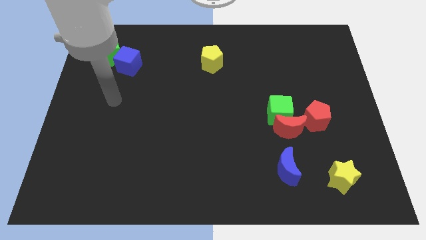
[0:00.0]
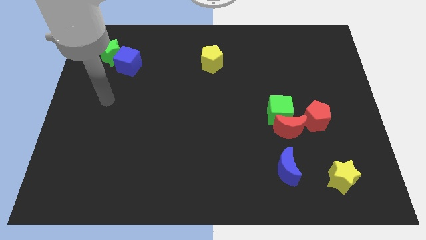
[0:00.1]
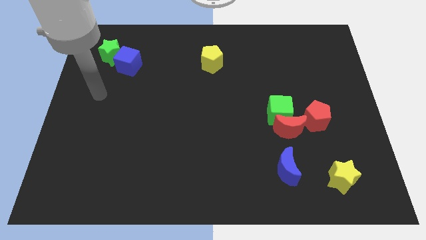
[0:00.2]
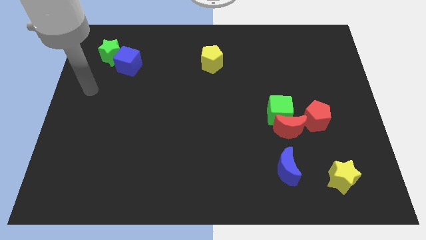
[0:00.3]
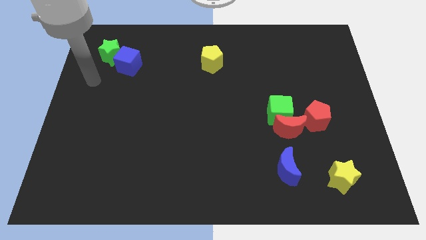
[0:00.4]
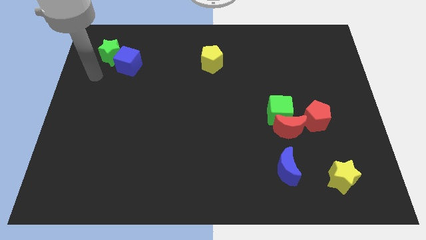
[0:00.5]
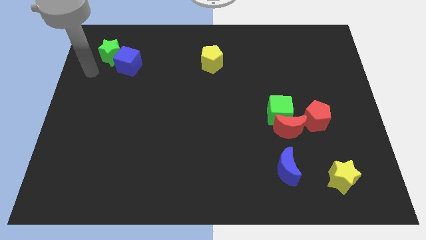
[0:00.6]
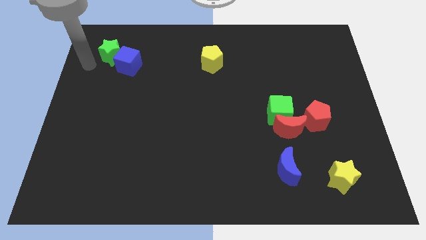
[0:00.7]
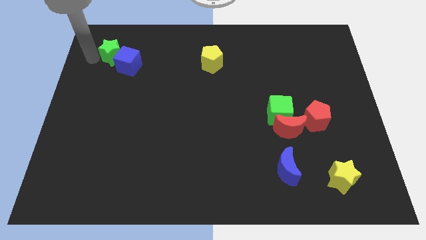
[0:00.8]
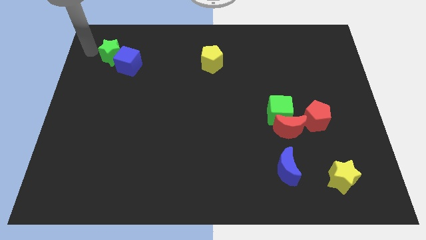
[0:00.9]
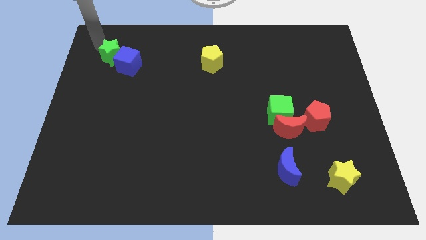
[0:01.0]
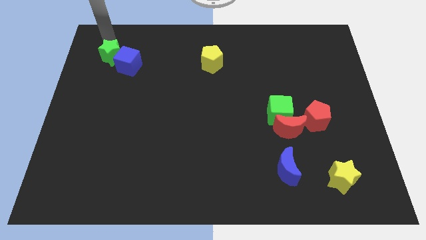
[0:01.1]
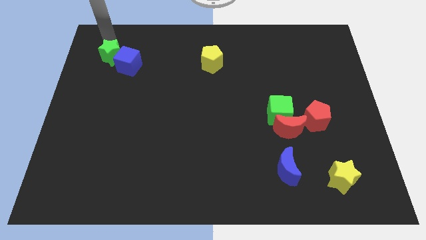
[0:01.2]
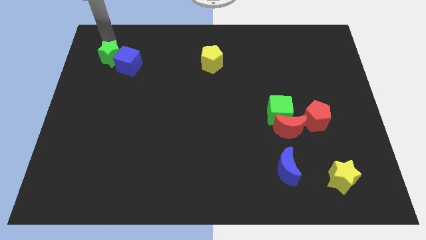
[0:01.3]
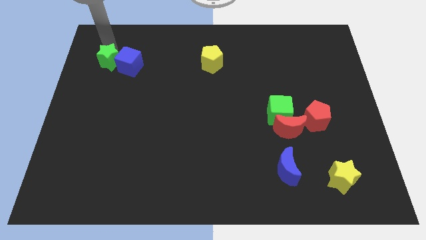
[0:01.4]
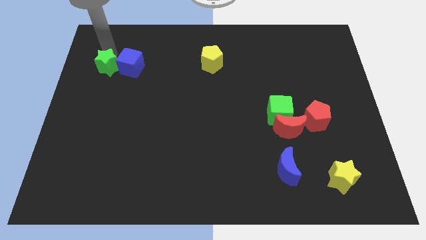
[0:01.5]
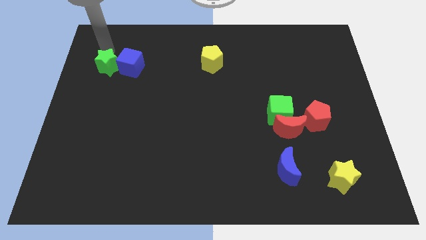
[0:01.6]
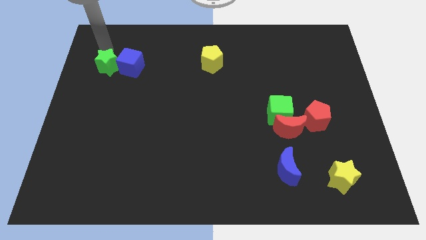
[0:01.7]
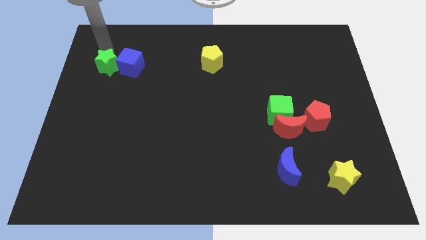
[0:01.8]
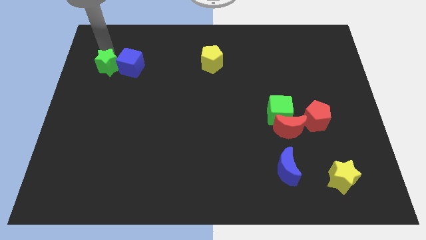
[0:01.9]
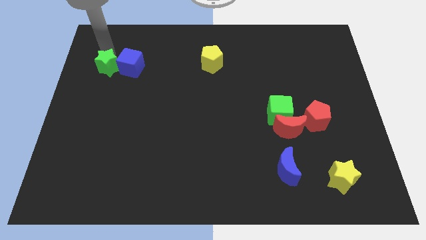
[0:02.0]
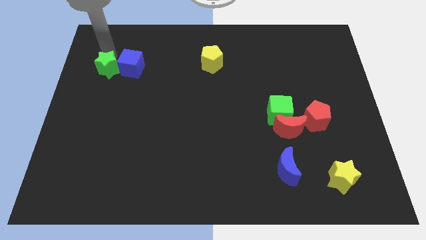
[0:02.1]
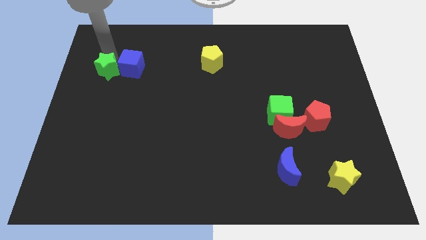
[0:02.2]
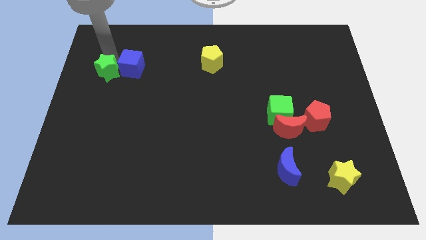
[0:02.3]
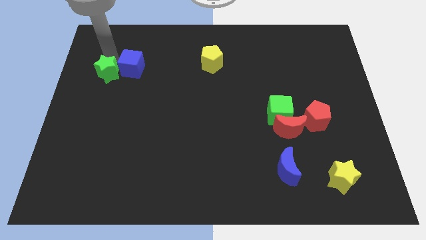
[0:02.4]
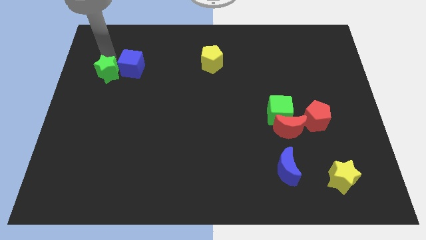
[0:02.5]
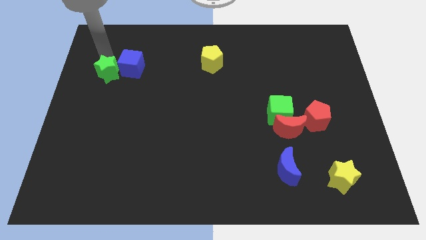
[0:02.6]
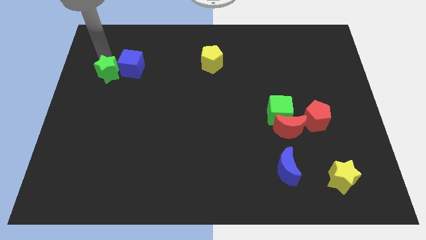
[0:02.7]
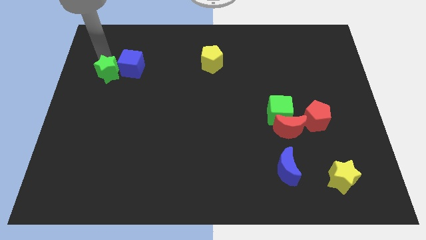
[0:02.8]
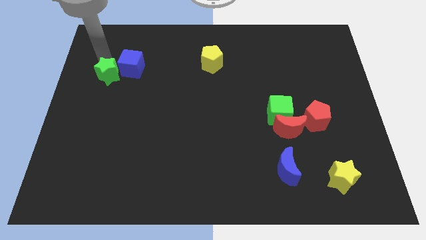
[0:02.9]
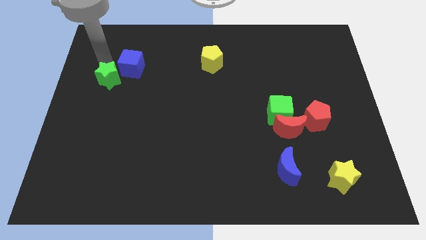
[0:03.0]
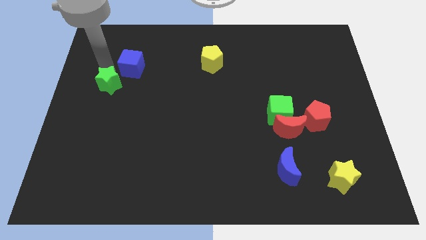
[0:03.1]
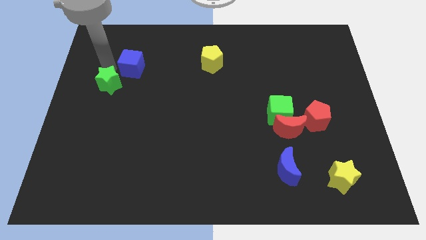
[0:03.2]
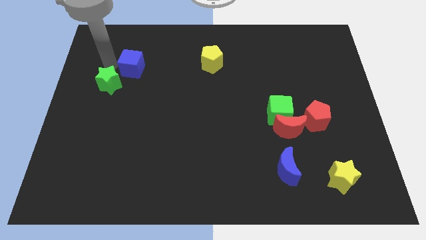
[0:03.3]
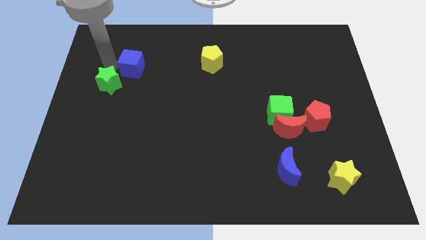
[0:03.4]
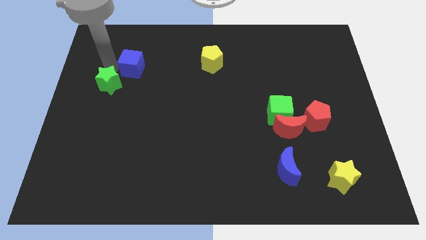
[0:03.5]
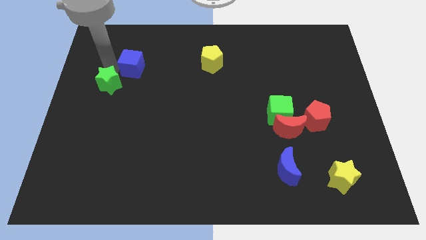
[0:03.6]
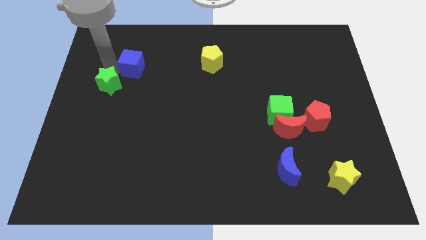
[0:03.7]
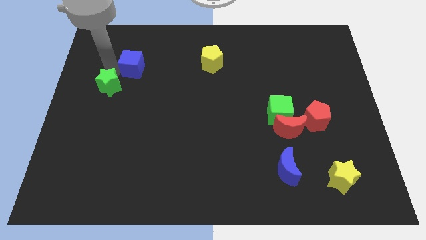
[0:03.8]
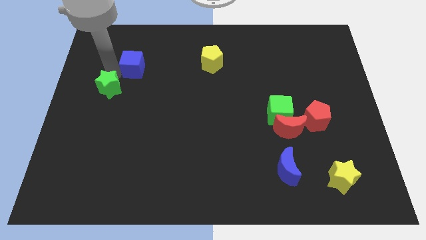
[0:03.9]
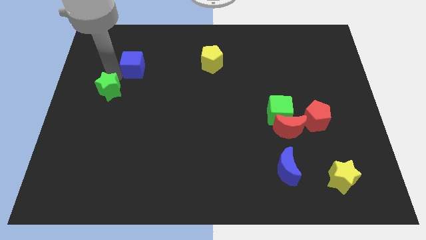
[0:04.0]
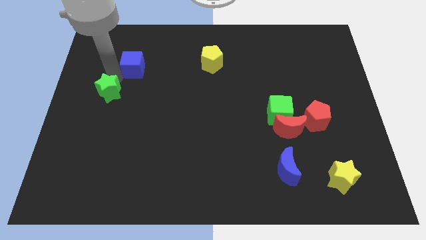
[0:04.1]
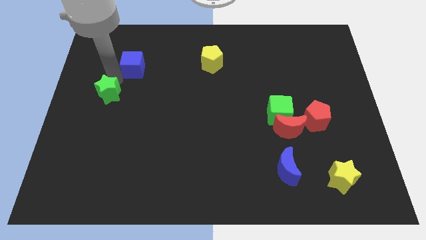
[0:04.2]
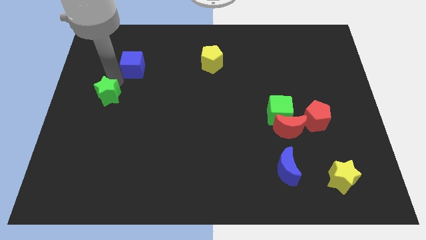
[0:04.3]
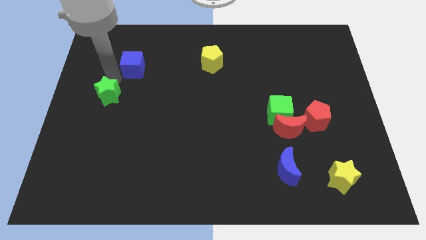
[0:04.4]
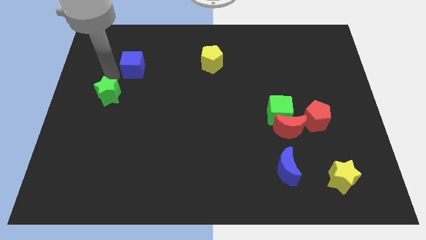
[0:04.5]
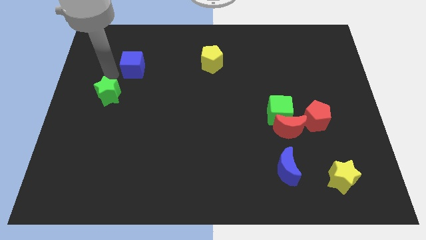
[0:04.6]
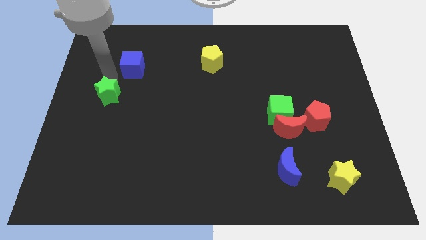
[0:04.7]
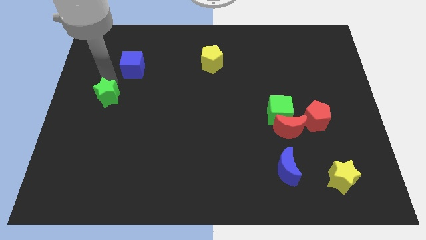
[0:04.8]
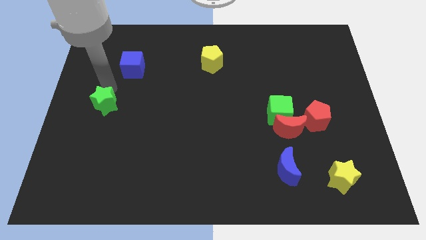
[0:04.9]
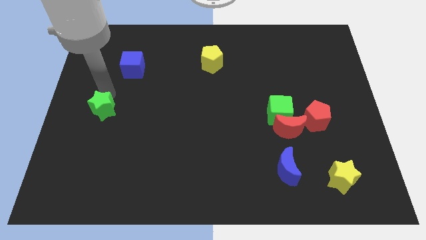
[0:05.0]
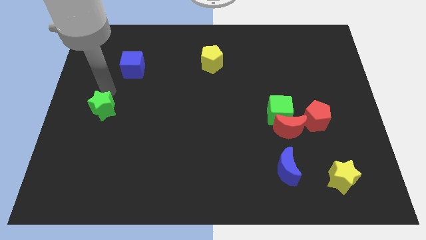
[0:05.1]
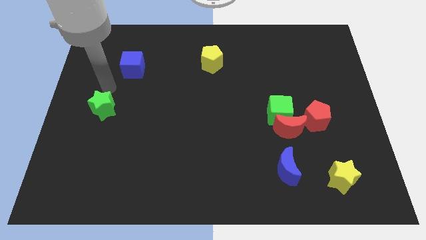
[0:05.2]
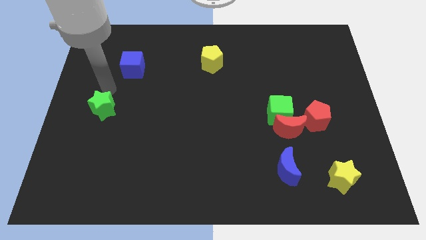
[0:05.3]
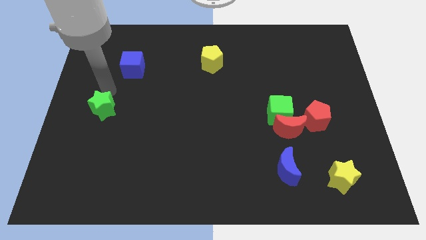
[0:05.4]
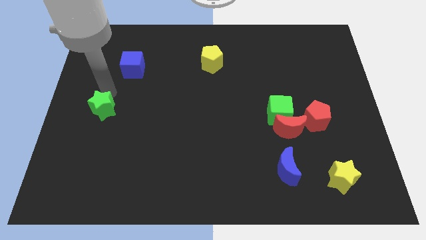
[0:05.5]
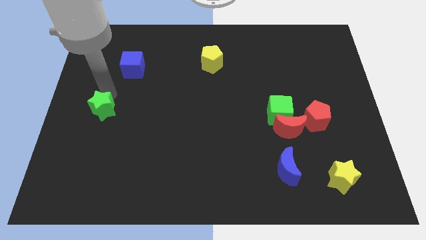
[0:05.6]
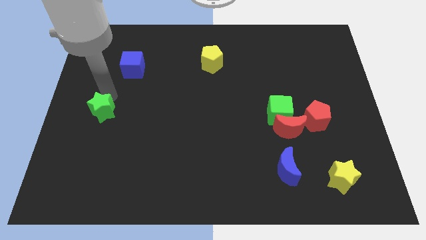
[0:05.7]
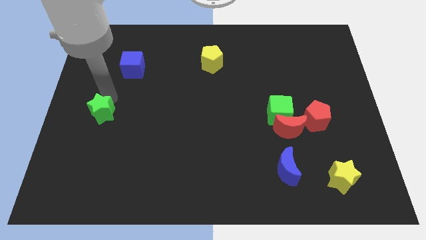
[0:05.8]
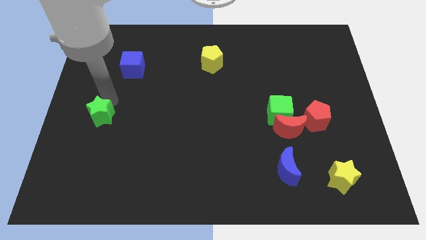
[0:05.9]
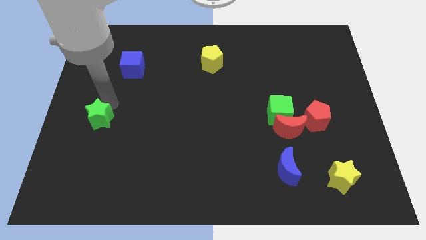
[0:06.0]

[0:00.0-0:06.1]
move the green star down

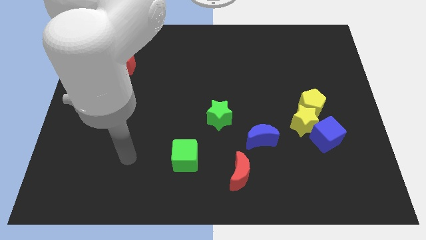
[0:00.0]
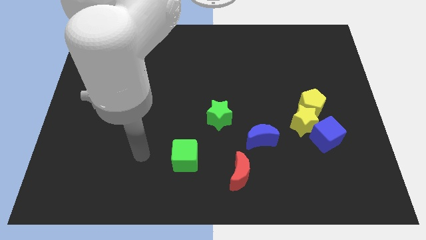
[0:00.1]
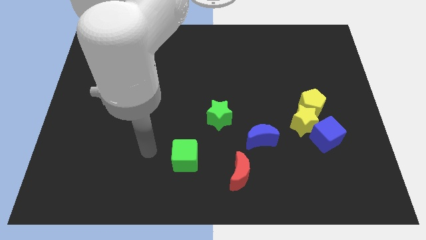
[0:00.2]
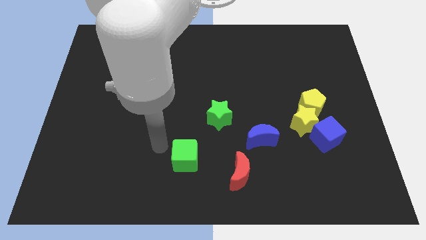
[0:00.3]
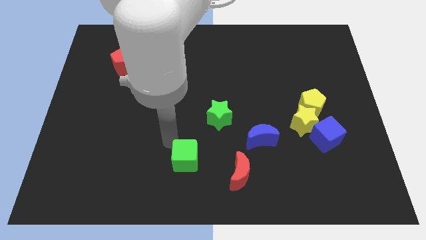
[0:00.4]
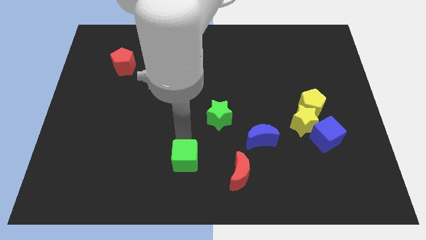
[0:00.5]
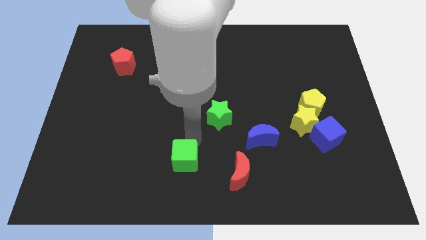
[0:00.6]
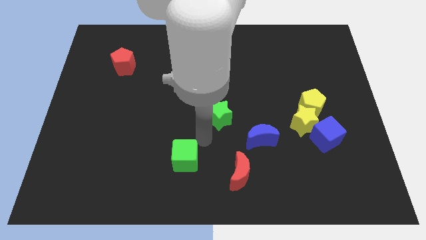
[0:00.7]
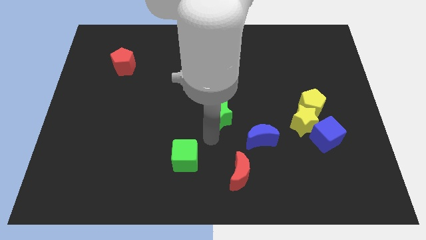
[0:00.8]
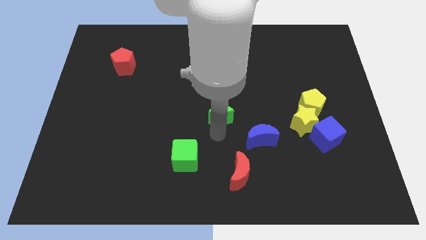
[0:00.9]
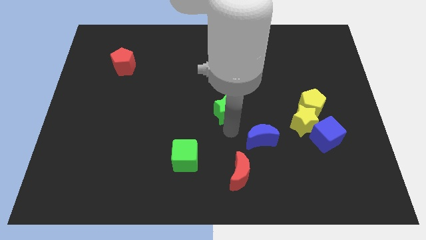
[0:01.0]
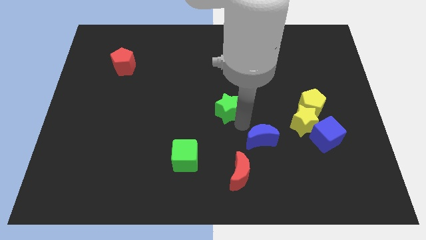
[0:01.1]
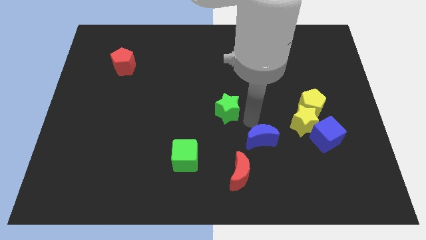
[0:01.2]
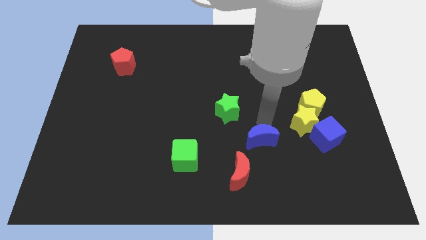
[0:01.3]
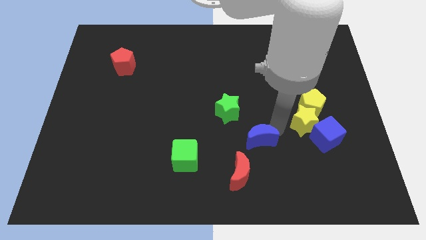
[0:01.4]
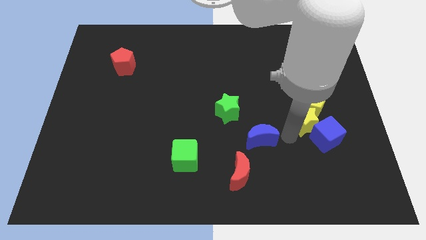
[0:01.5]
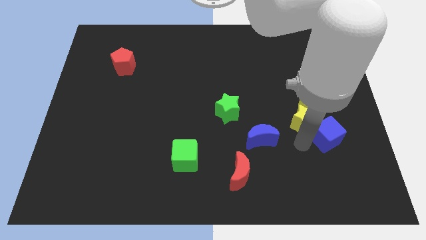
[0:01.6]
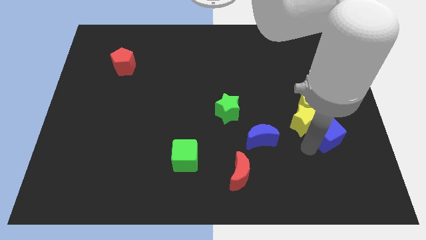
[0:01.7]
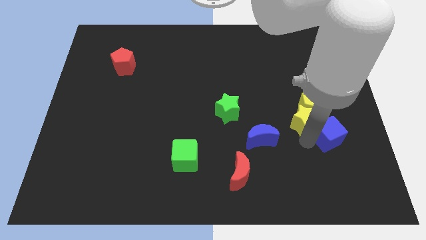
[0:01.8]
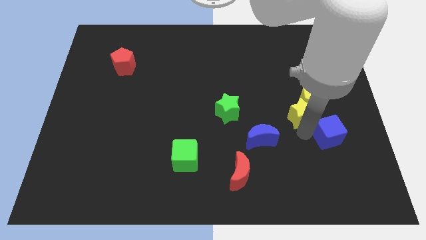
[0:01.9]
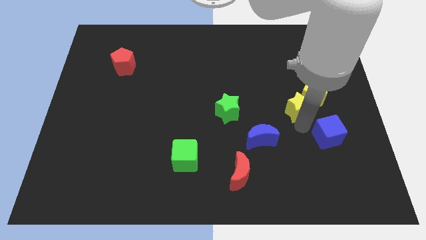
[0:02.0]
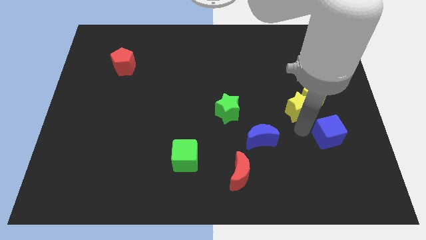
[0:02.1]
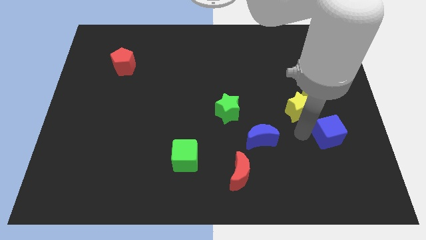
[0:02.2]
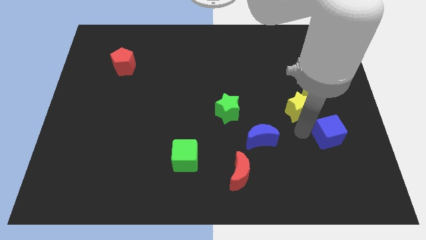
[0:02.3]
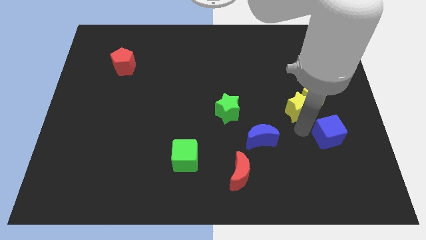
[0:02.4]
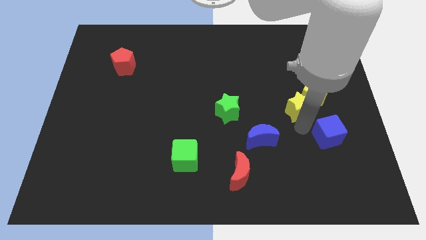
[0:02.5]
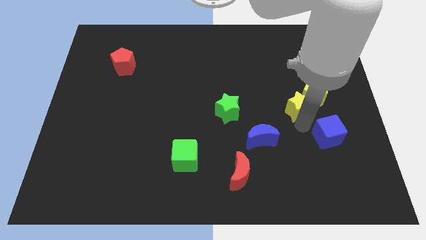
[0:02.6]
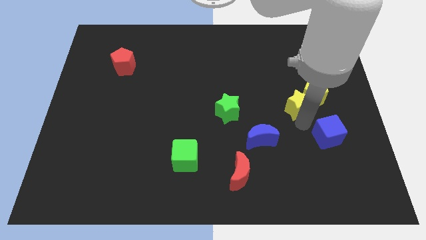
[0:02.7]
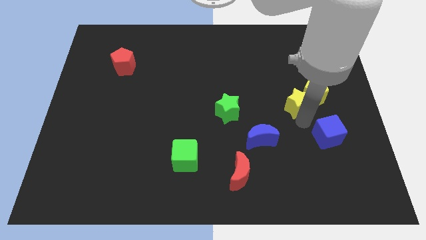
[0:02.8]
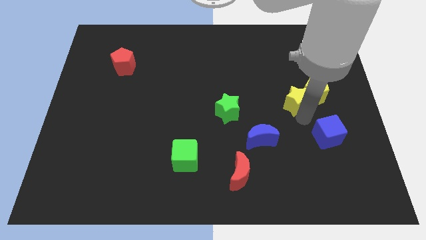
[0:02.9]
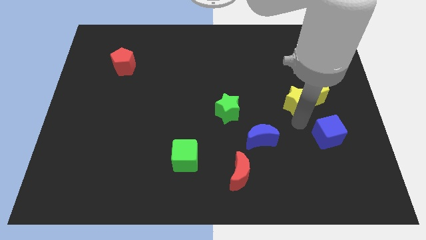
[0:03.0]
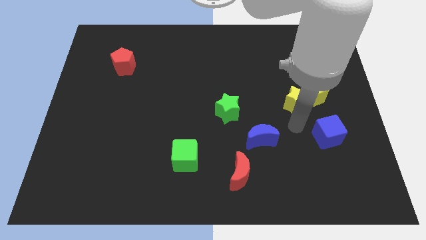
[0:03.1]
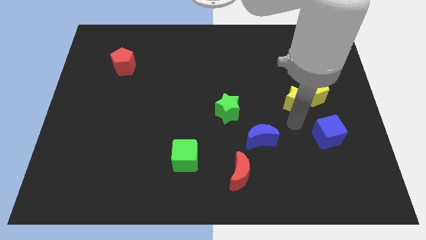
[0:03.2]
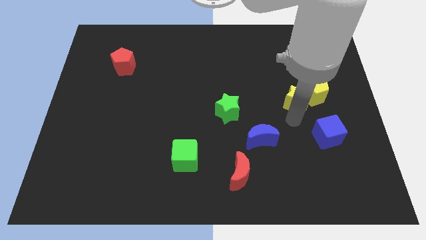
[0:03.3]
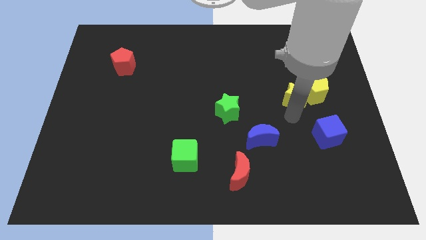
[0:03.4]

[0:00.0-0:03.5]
push the yellow star up slightly
